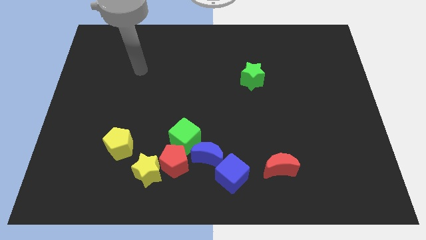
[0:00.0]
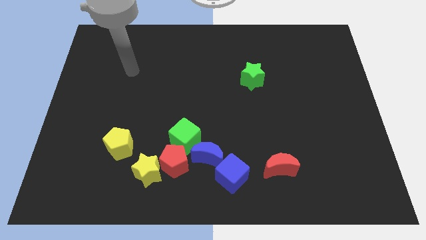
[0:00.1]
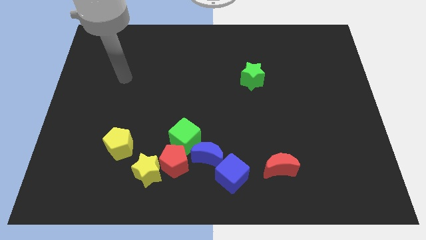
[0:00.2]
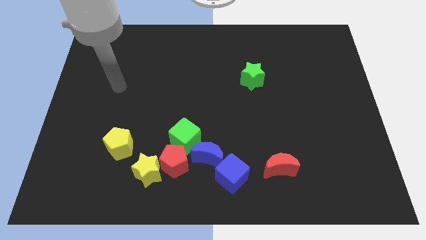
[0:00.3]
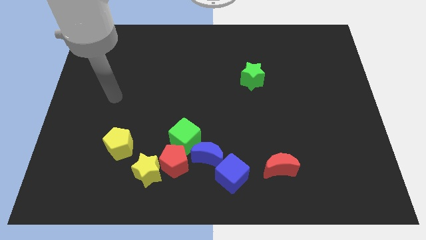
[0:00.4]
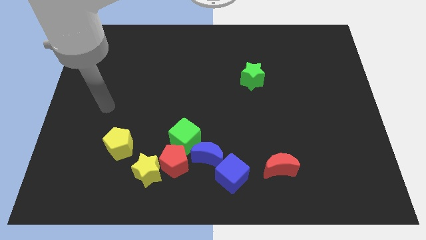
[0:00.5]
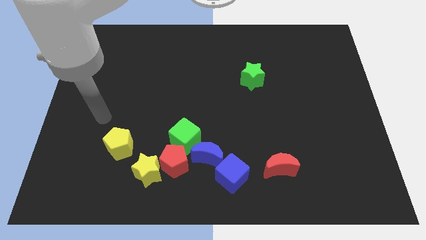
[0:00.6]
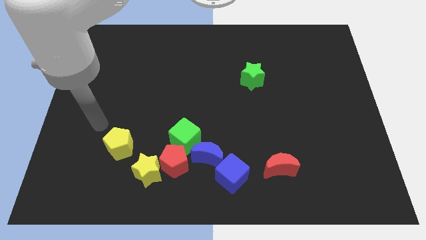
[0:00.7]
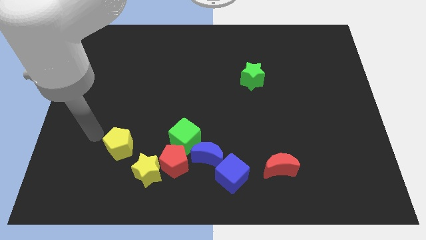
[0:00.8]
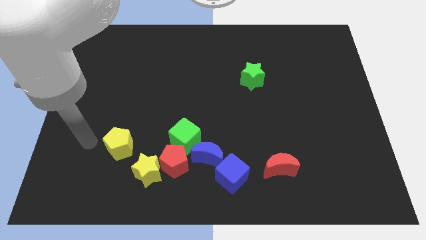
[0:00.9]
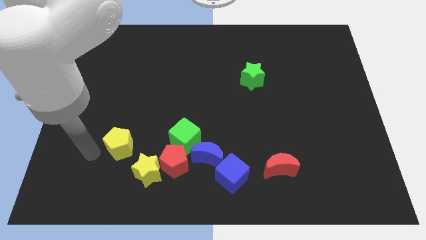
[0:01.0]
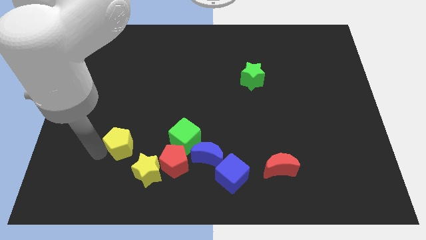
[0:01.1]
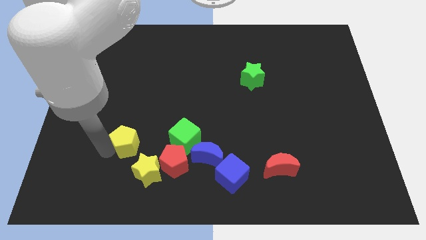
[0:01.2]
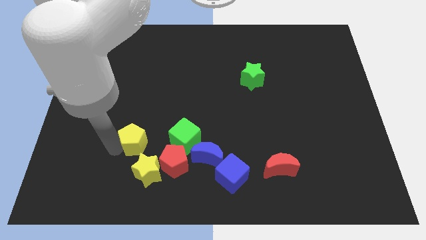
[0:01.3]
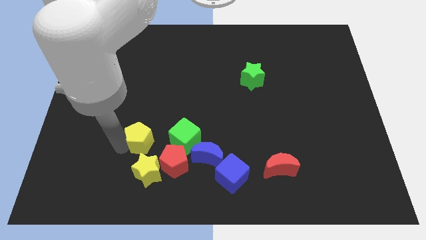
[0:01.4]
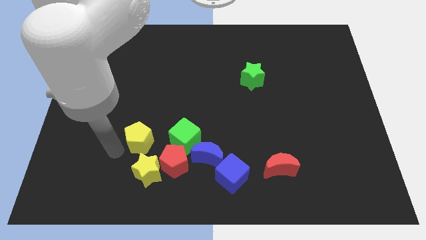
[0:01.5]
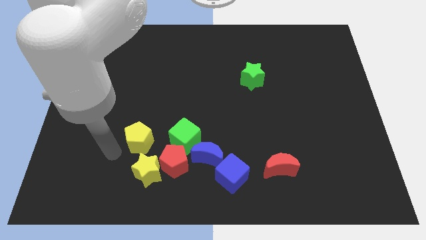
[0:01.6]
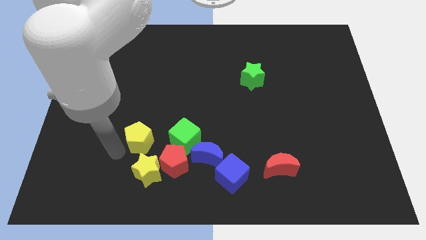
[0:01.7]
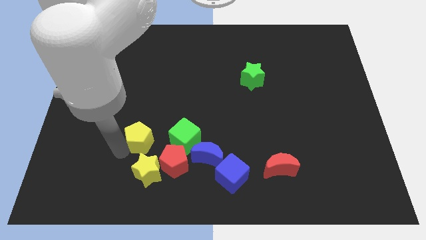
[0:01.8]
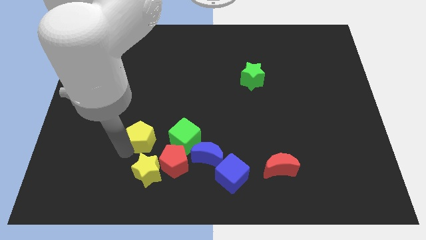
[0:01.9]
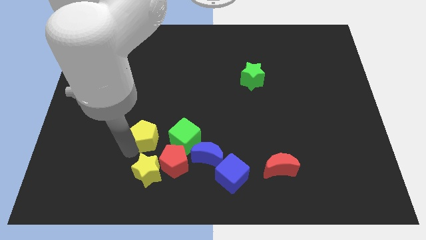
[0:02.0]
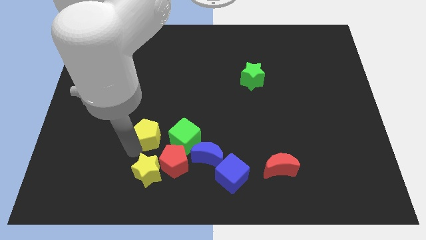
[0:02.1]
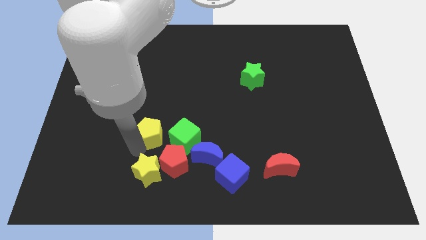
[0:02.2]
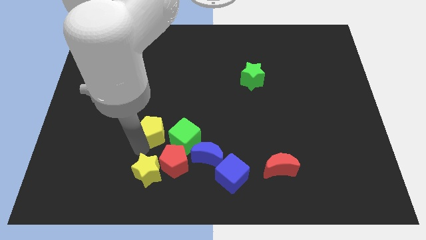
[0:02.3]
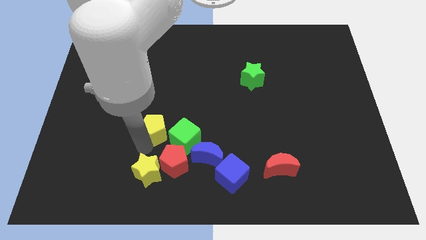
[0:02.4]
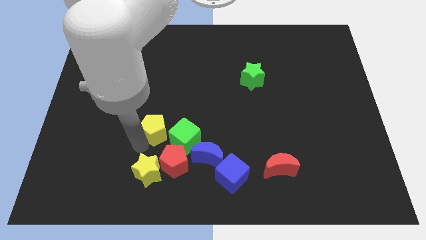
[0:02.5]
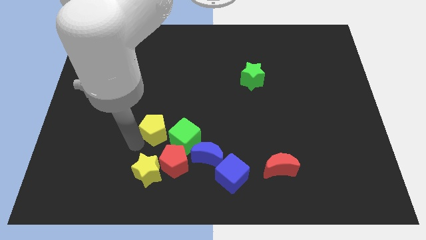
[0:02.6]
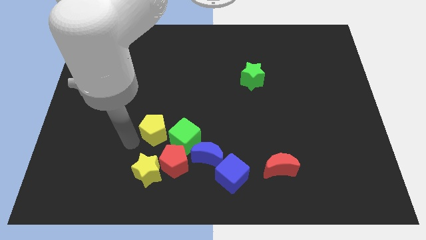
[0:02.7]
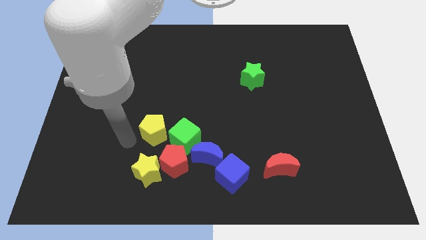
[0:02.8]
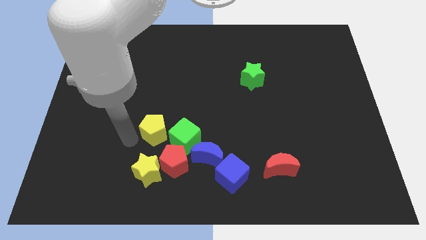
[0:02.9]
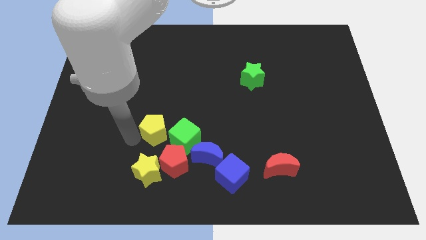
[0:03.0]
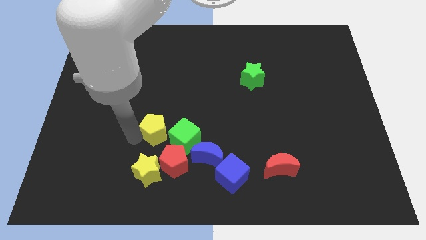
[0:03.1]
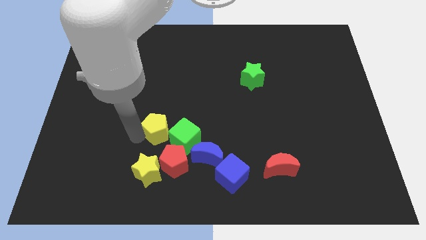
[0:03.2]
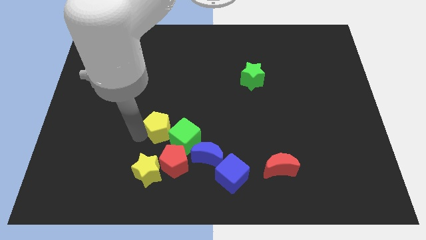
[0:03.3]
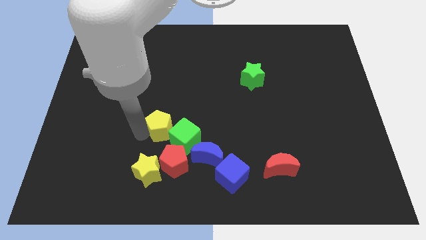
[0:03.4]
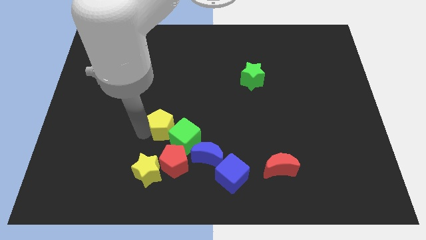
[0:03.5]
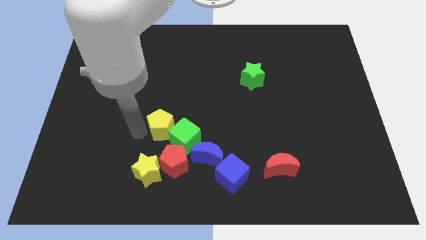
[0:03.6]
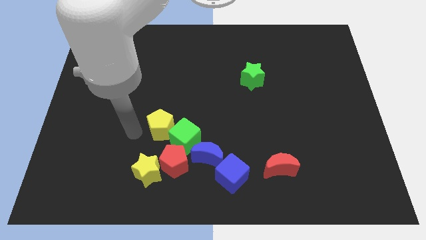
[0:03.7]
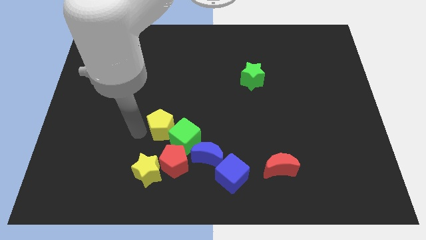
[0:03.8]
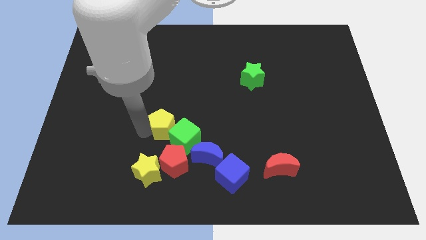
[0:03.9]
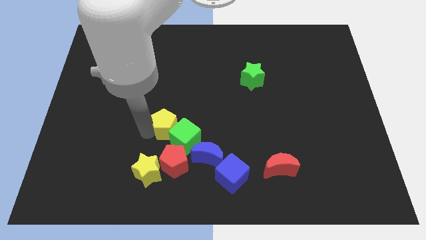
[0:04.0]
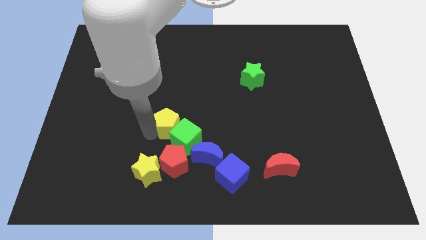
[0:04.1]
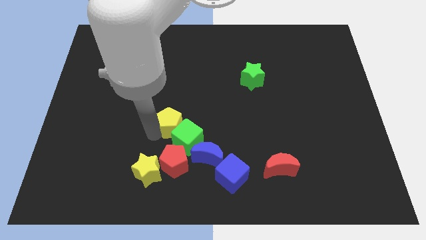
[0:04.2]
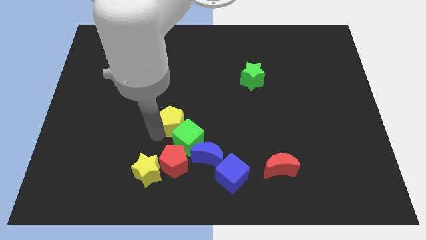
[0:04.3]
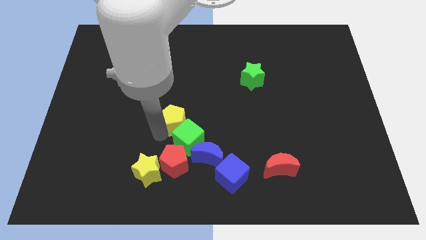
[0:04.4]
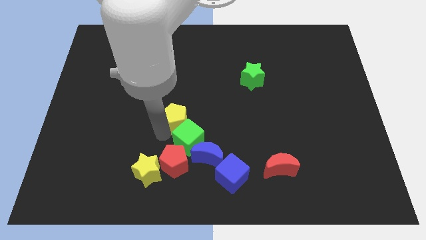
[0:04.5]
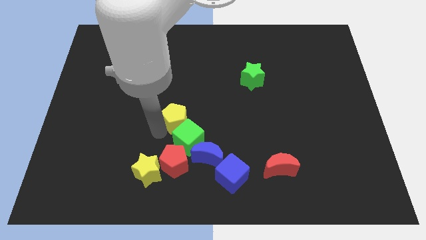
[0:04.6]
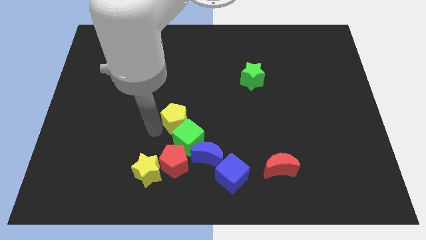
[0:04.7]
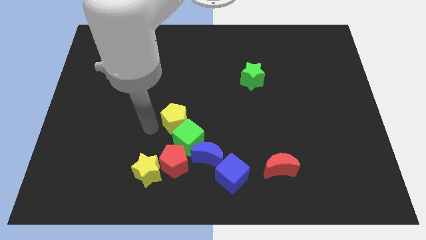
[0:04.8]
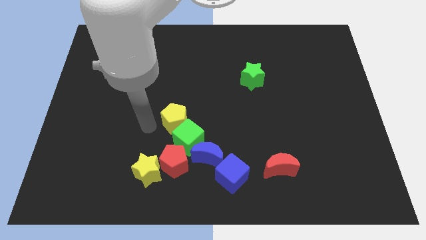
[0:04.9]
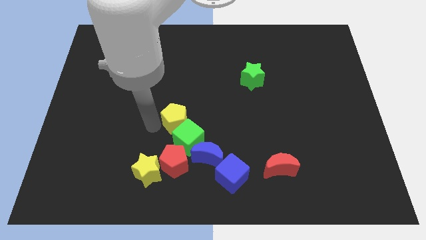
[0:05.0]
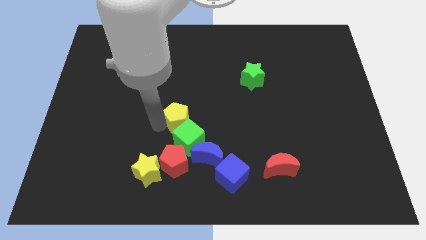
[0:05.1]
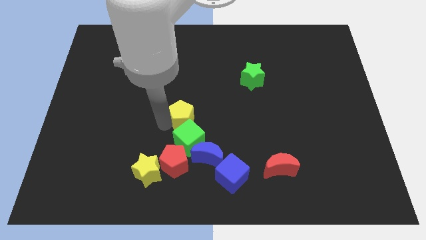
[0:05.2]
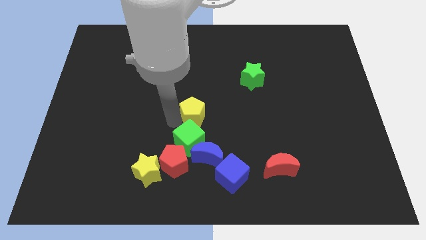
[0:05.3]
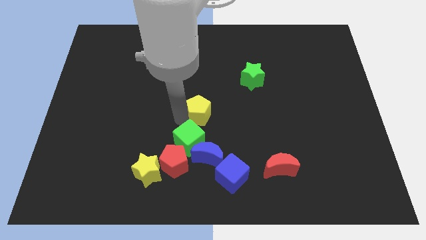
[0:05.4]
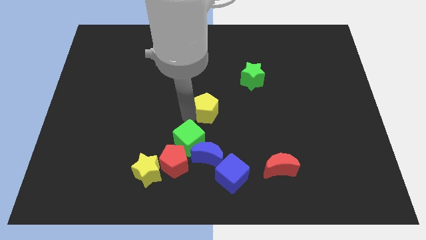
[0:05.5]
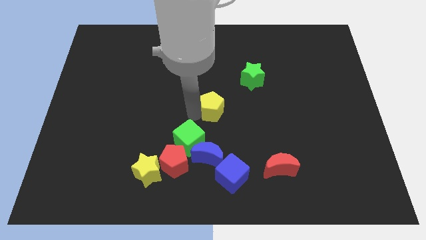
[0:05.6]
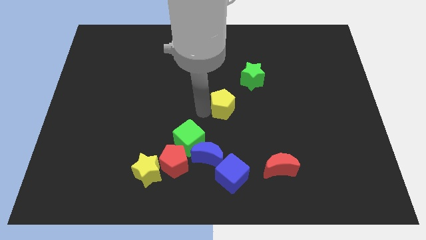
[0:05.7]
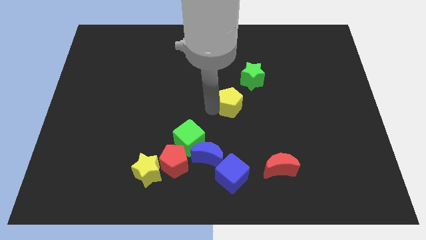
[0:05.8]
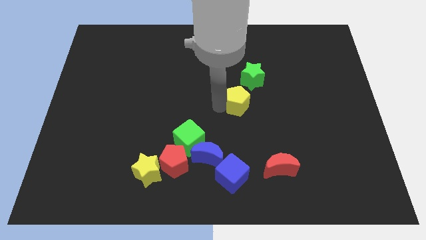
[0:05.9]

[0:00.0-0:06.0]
push the yellow pentagon to the bottom of the green star
